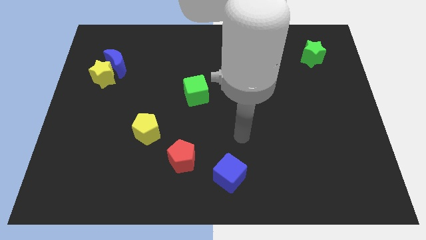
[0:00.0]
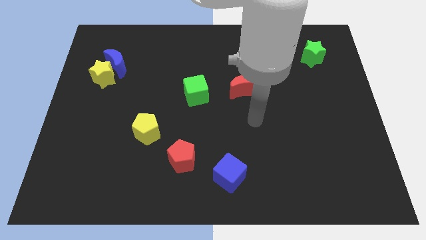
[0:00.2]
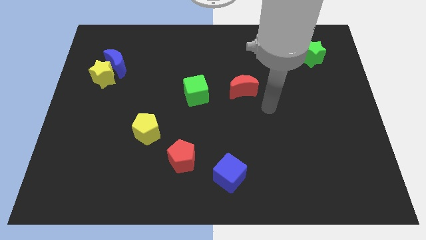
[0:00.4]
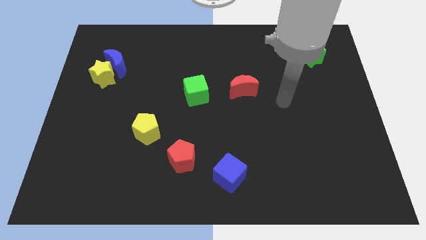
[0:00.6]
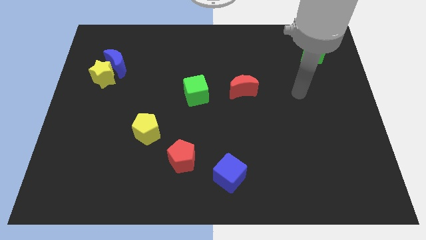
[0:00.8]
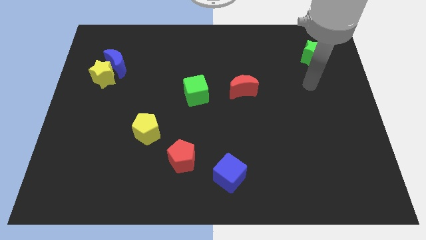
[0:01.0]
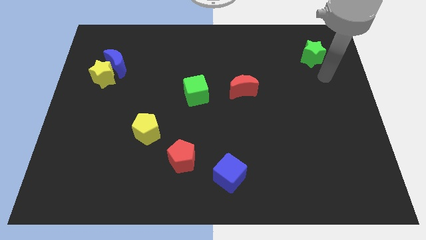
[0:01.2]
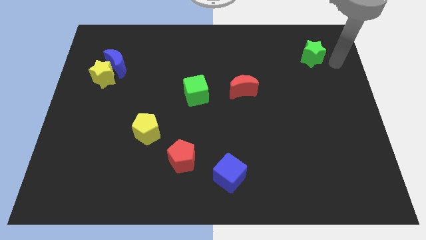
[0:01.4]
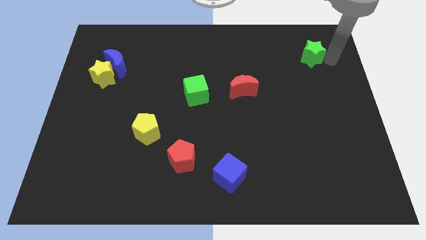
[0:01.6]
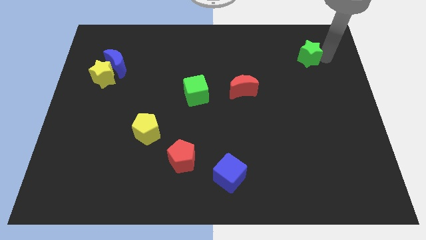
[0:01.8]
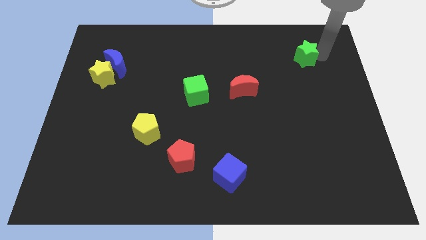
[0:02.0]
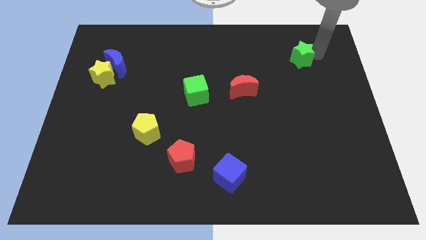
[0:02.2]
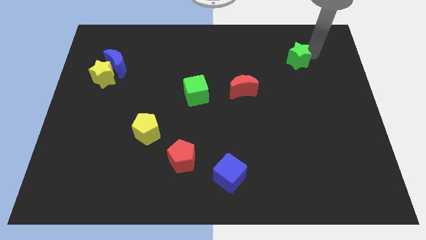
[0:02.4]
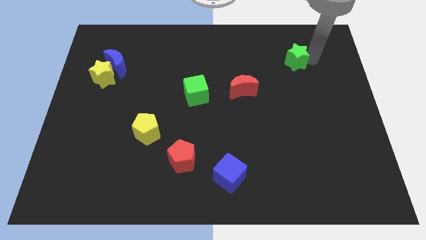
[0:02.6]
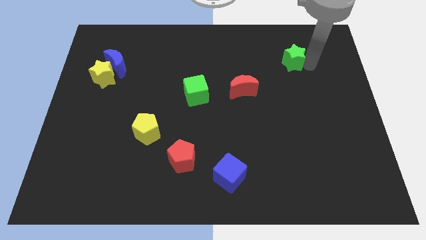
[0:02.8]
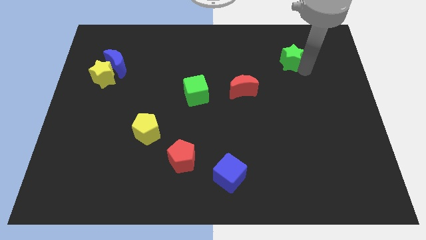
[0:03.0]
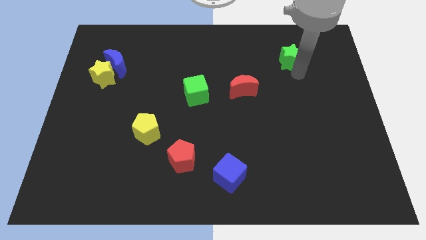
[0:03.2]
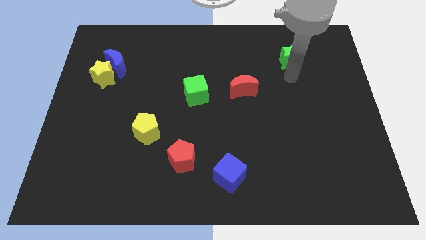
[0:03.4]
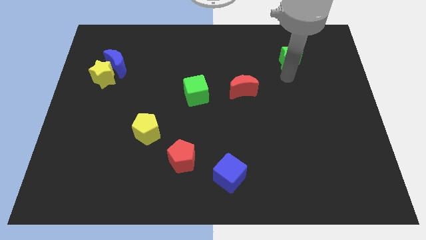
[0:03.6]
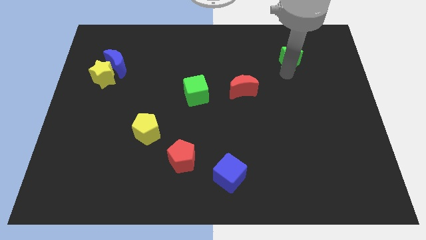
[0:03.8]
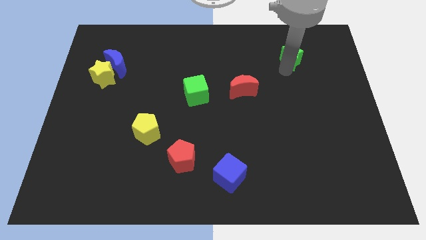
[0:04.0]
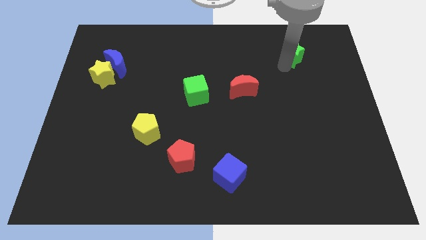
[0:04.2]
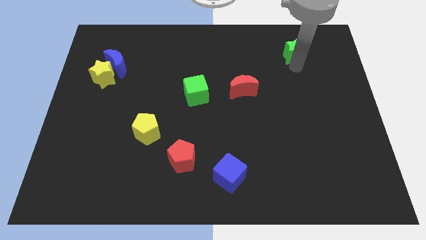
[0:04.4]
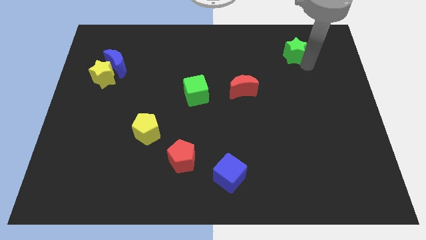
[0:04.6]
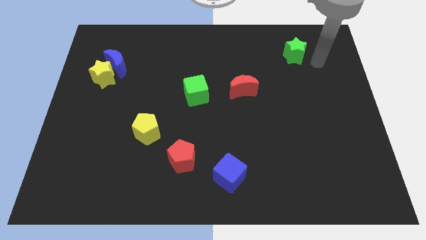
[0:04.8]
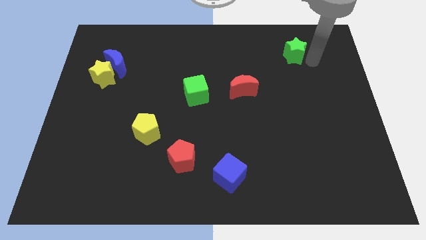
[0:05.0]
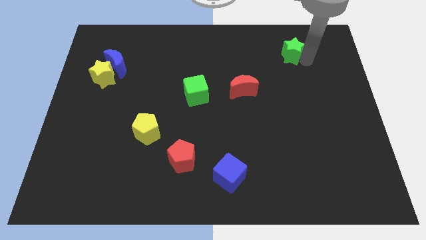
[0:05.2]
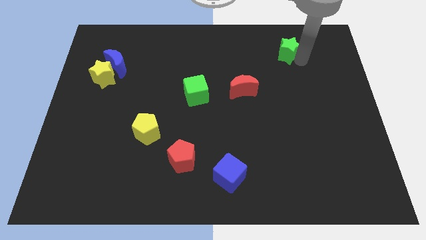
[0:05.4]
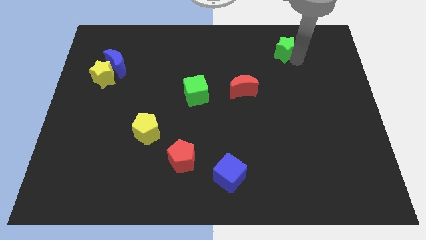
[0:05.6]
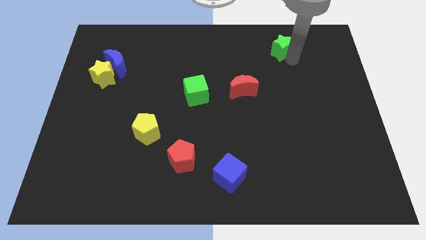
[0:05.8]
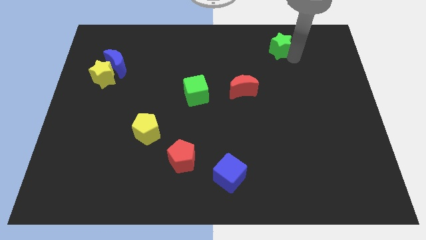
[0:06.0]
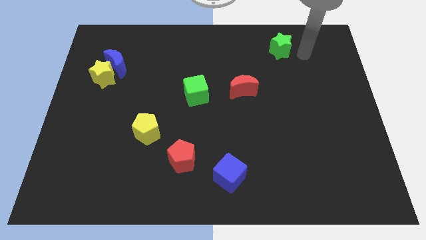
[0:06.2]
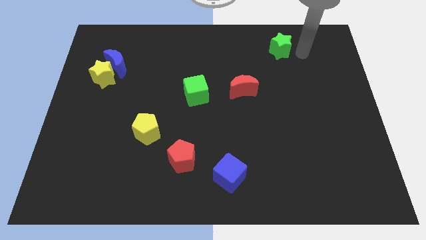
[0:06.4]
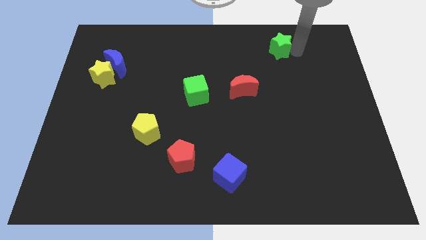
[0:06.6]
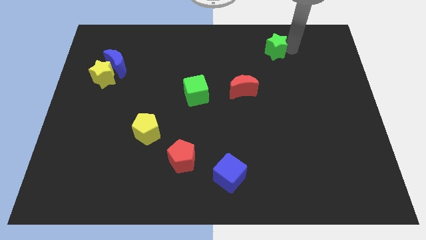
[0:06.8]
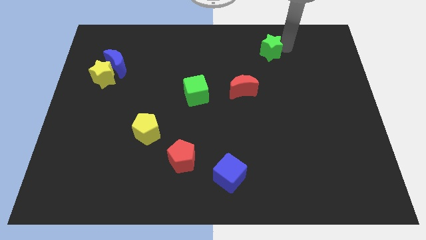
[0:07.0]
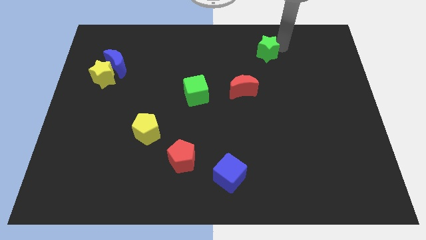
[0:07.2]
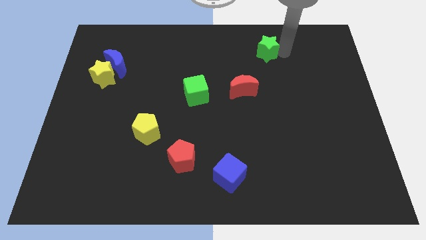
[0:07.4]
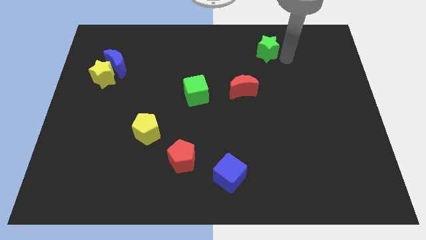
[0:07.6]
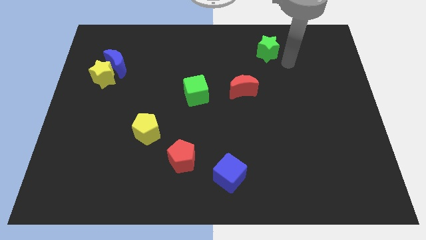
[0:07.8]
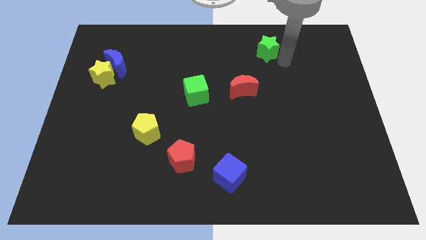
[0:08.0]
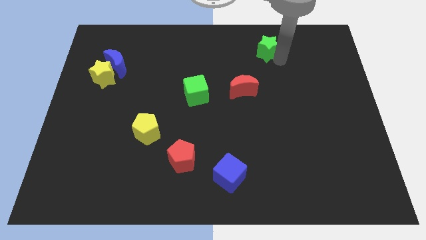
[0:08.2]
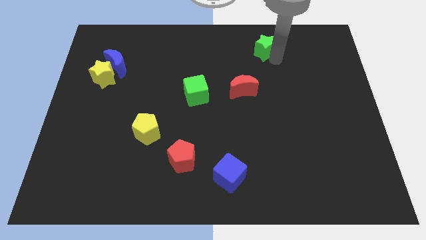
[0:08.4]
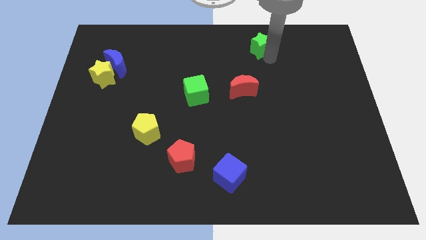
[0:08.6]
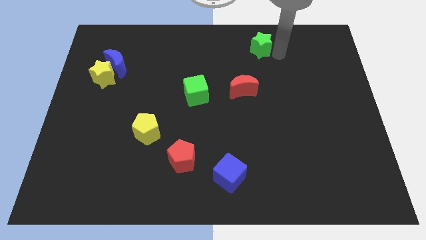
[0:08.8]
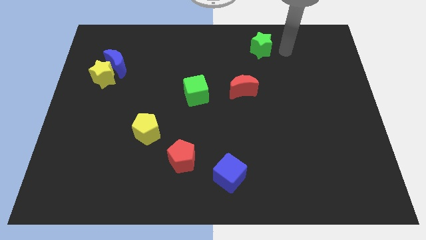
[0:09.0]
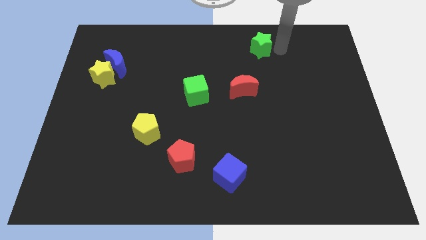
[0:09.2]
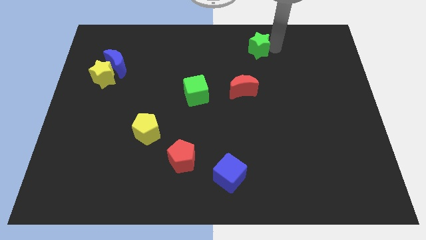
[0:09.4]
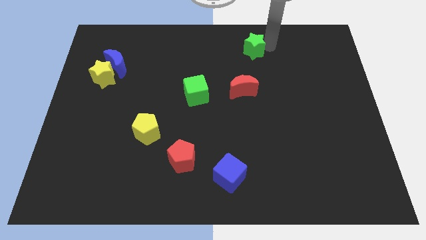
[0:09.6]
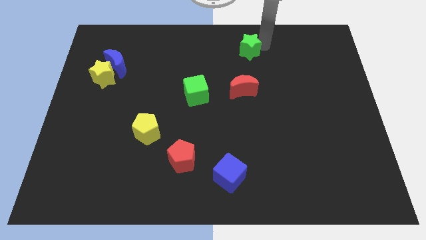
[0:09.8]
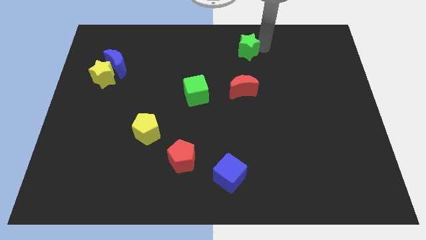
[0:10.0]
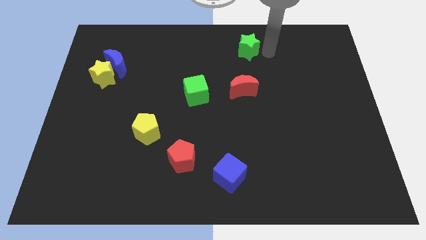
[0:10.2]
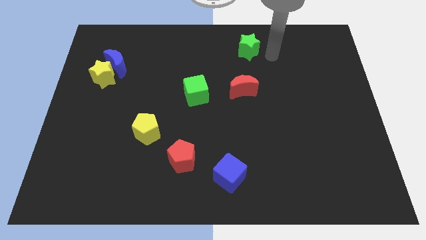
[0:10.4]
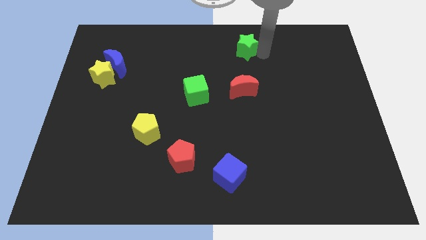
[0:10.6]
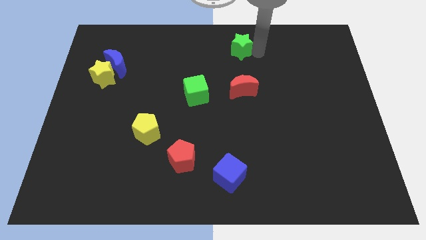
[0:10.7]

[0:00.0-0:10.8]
slide the green star to the top

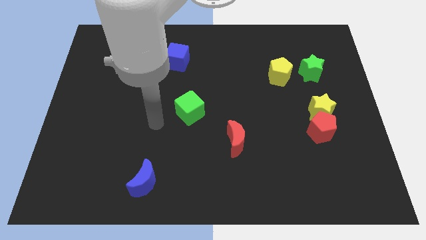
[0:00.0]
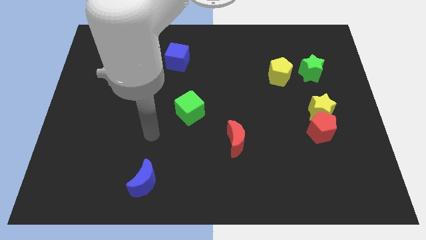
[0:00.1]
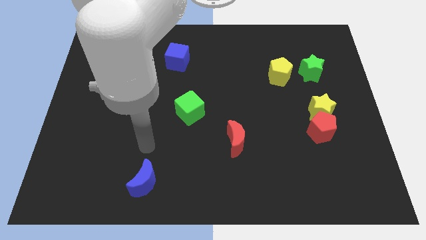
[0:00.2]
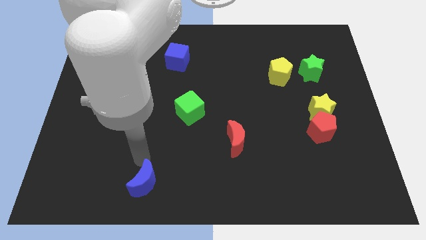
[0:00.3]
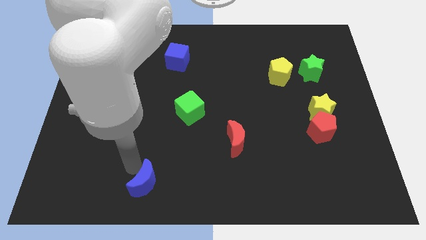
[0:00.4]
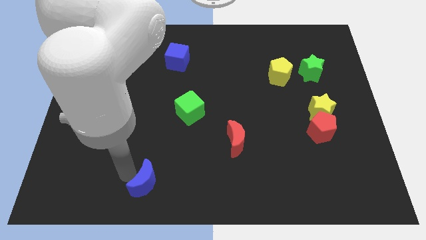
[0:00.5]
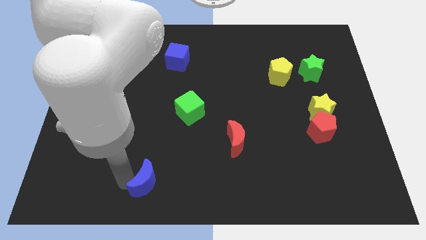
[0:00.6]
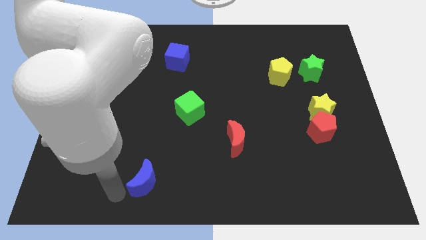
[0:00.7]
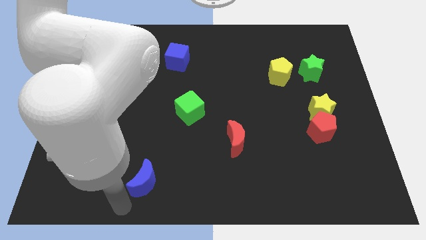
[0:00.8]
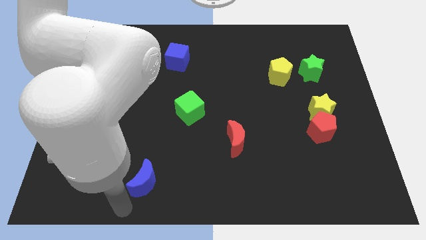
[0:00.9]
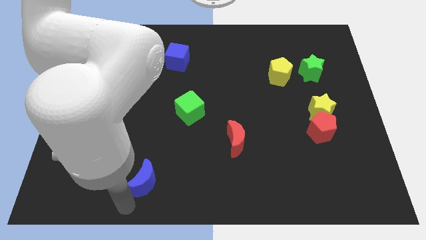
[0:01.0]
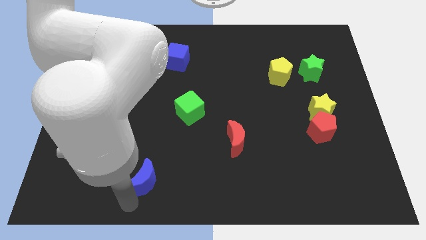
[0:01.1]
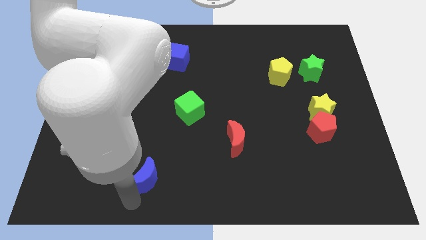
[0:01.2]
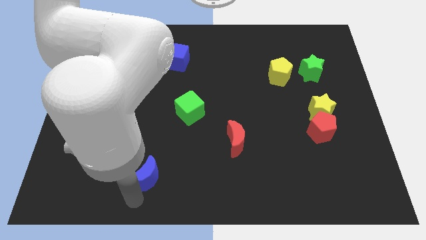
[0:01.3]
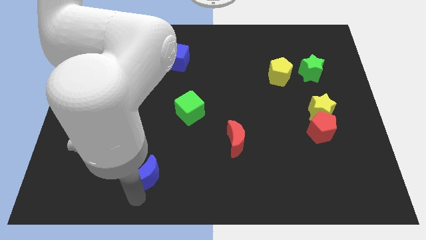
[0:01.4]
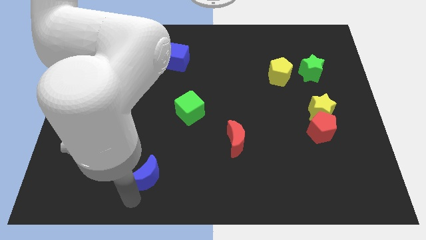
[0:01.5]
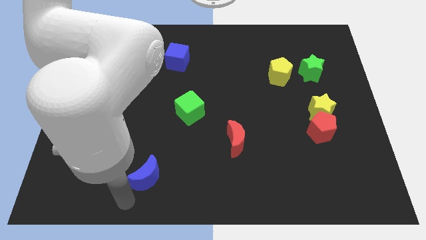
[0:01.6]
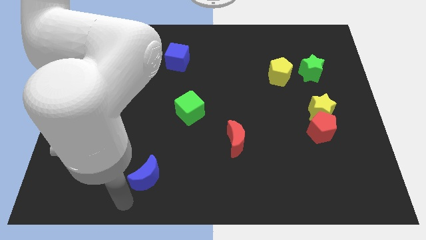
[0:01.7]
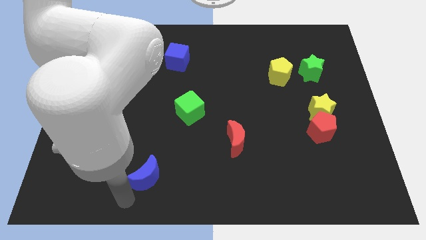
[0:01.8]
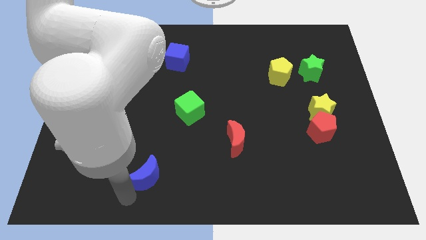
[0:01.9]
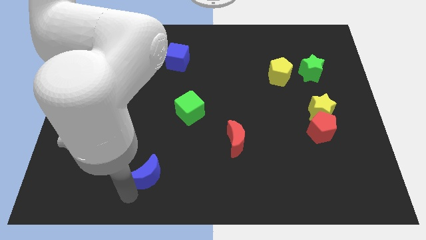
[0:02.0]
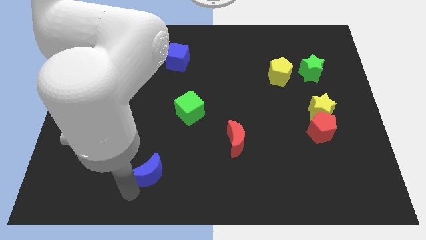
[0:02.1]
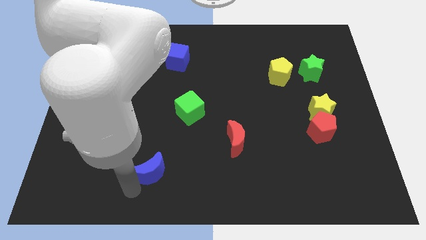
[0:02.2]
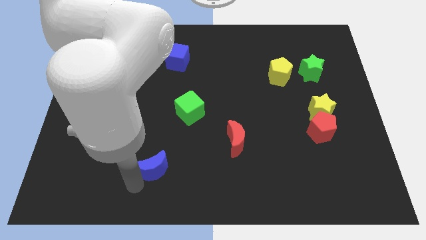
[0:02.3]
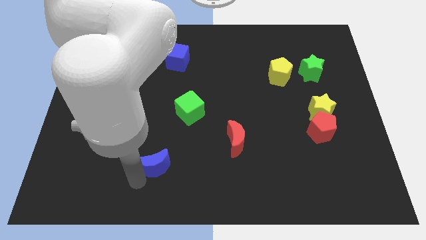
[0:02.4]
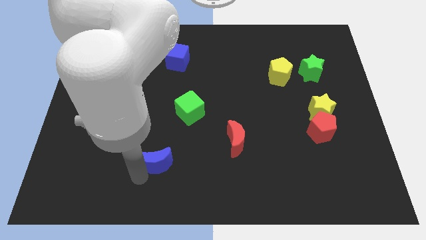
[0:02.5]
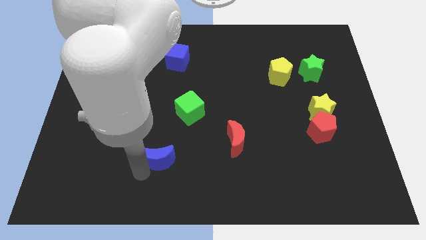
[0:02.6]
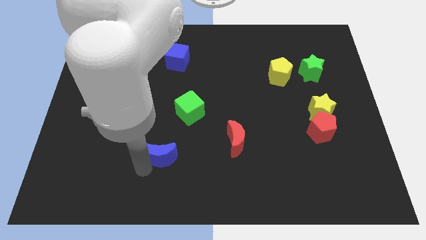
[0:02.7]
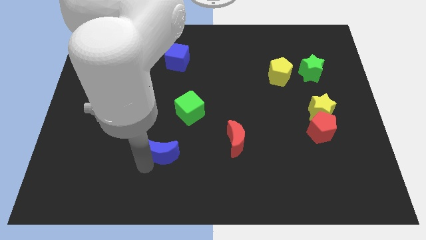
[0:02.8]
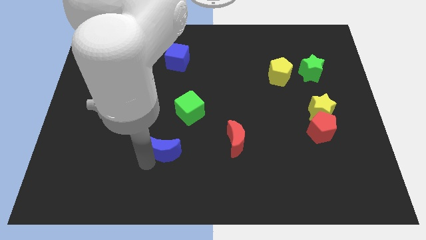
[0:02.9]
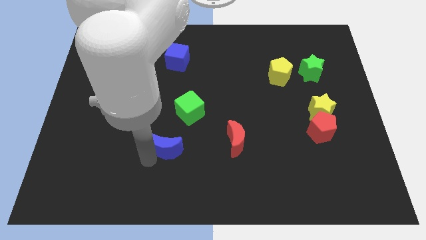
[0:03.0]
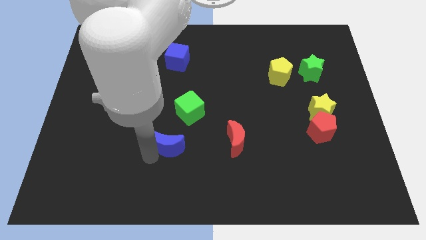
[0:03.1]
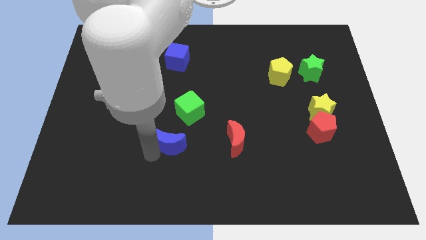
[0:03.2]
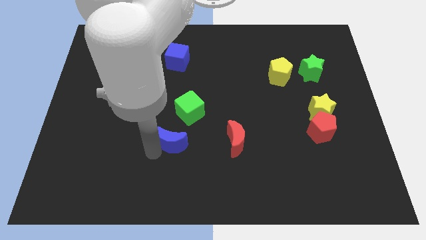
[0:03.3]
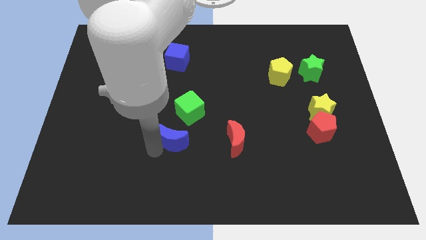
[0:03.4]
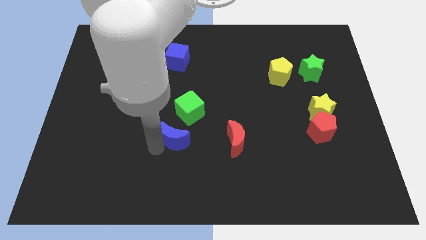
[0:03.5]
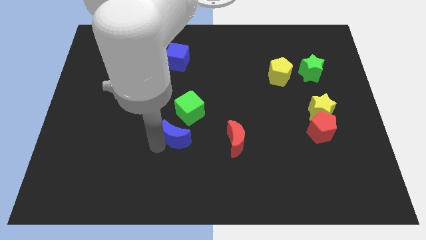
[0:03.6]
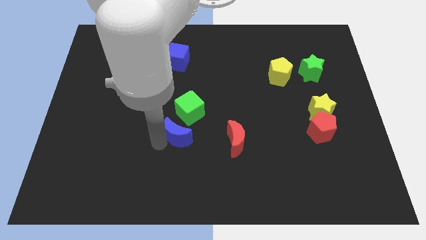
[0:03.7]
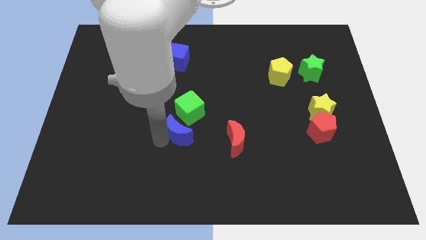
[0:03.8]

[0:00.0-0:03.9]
put the blue moon to the center
